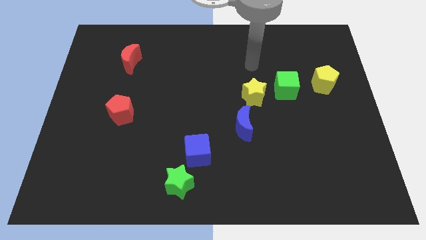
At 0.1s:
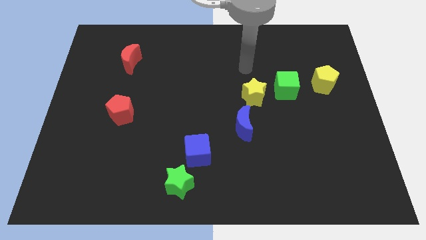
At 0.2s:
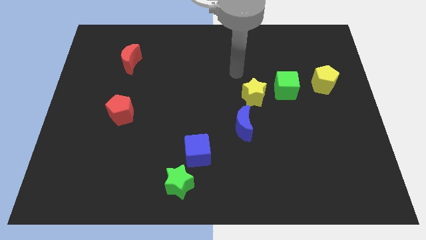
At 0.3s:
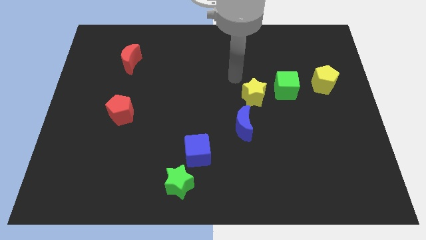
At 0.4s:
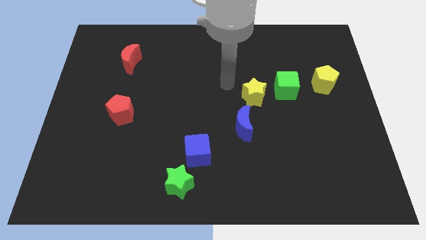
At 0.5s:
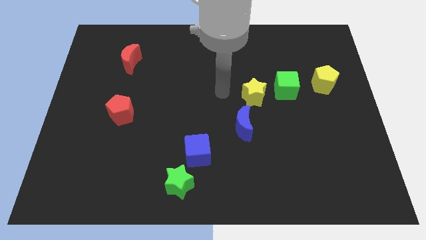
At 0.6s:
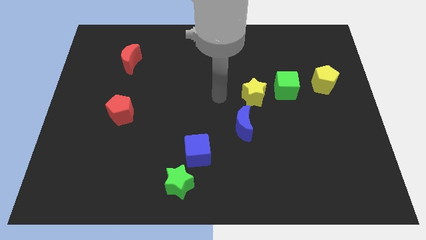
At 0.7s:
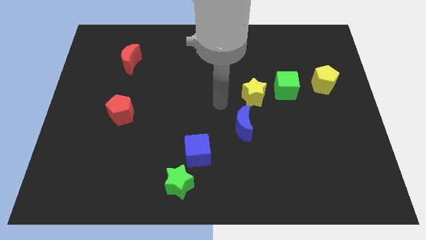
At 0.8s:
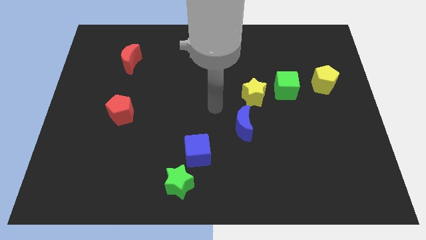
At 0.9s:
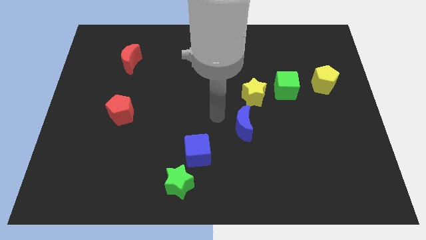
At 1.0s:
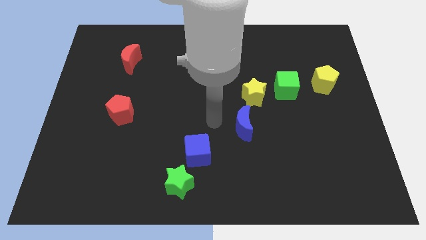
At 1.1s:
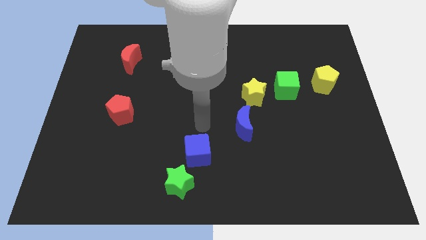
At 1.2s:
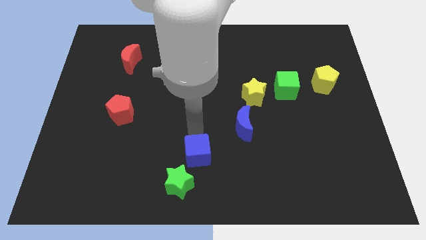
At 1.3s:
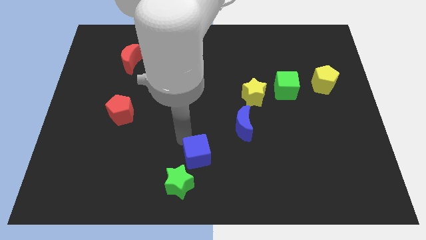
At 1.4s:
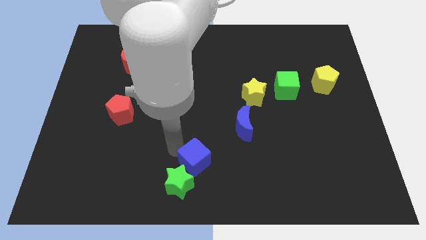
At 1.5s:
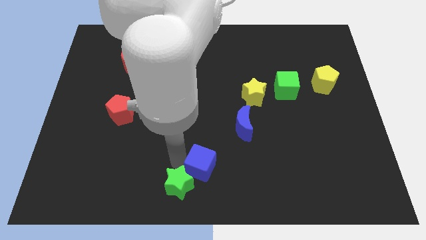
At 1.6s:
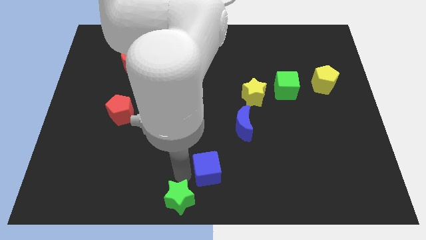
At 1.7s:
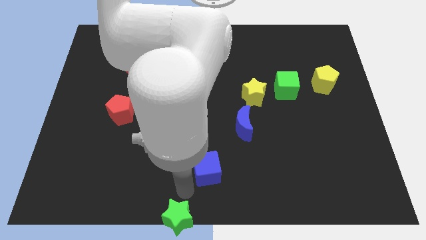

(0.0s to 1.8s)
pull the blue cube apart from the green star

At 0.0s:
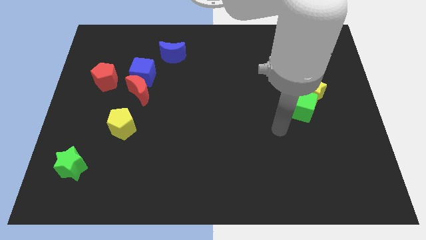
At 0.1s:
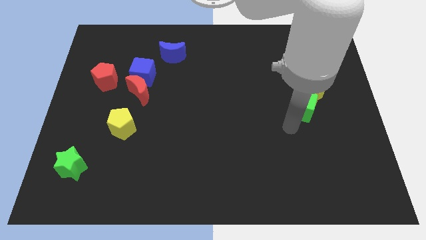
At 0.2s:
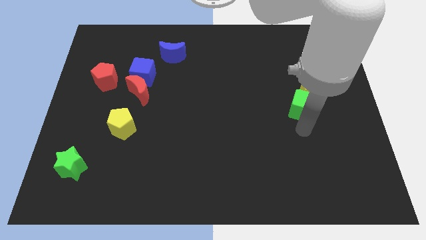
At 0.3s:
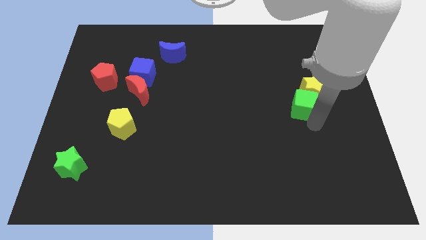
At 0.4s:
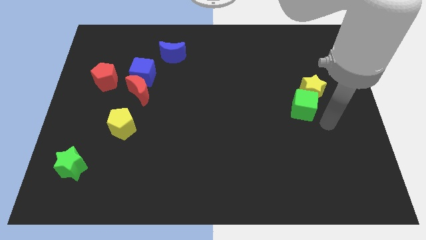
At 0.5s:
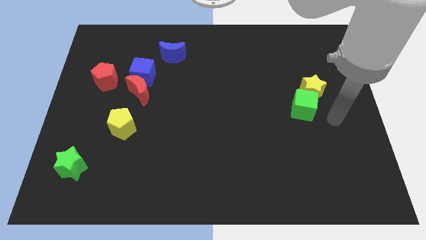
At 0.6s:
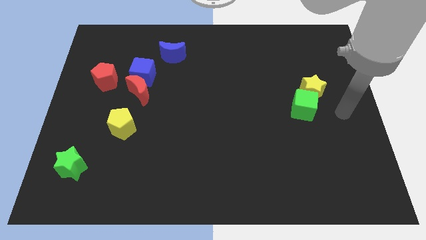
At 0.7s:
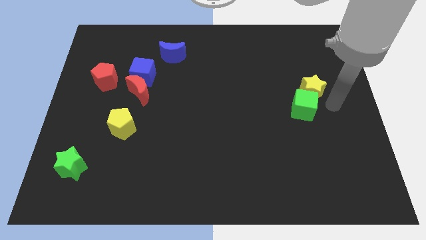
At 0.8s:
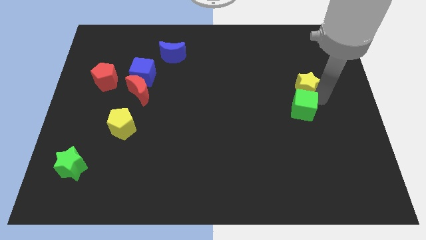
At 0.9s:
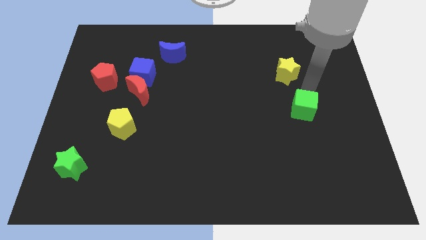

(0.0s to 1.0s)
move the green cube away from the yellow star

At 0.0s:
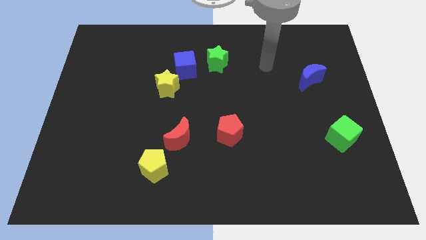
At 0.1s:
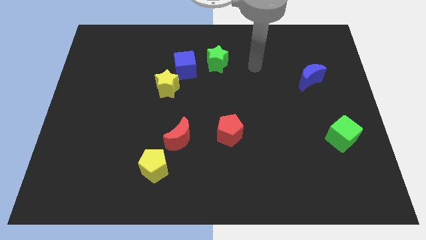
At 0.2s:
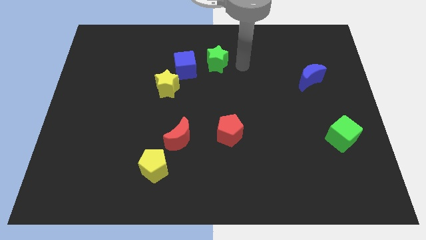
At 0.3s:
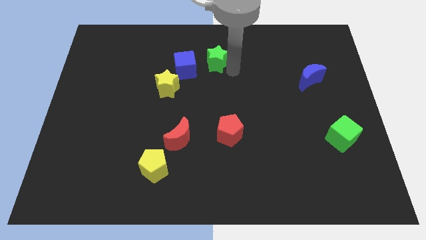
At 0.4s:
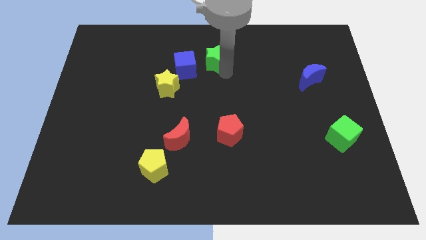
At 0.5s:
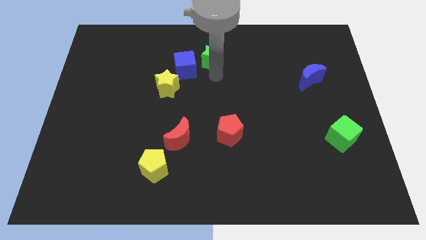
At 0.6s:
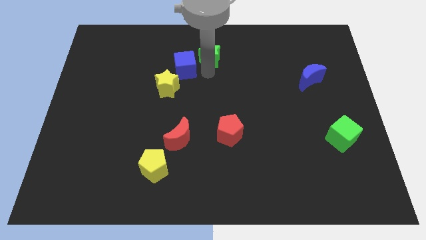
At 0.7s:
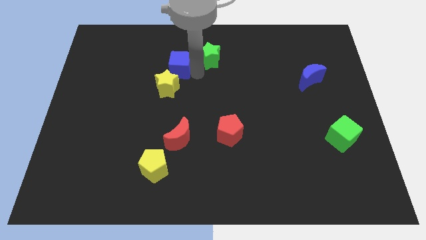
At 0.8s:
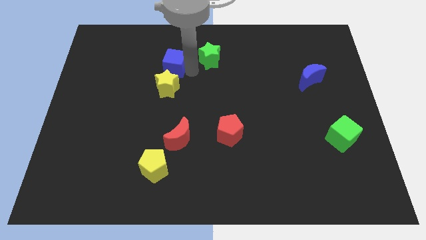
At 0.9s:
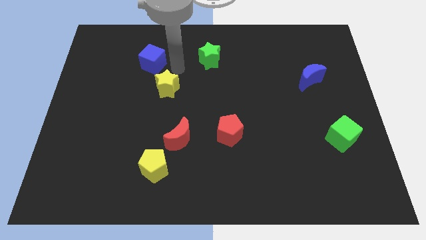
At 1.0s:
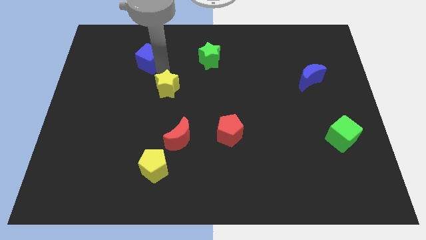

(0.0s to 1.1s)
pull the yellow star apart from the blue cube

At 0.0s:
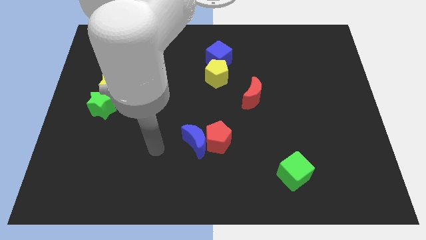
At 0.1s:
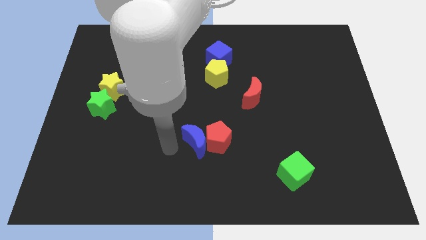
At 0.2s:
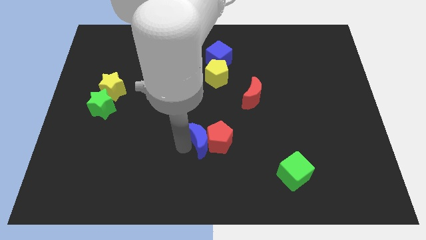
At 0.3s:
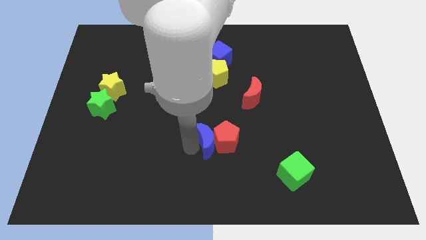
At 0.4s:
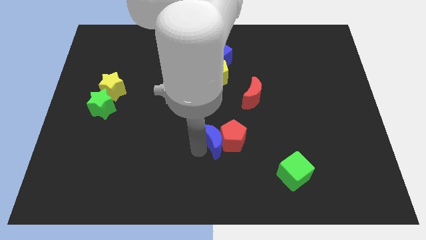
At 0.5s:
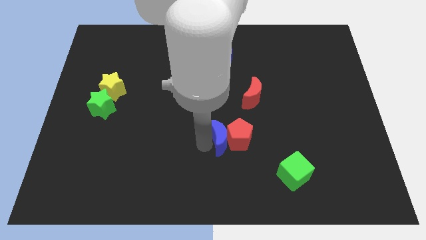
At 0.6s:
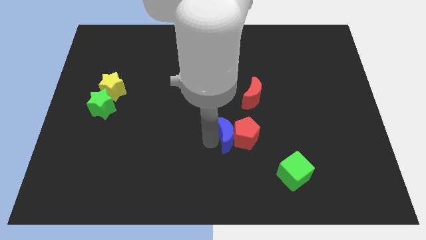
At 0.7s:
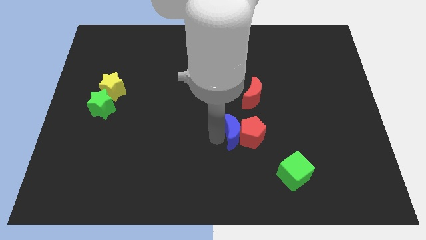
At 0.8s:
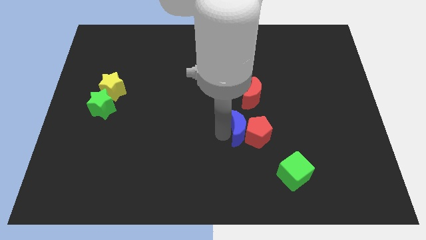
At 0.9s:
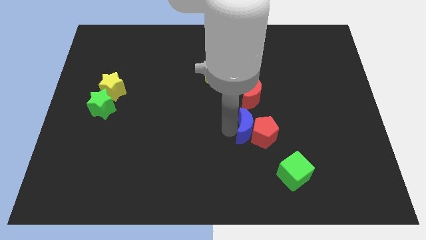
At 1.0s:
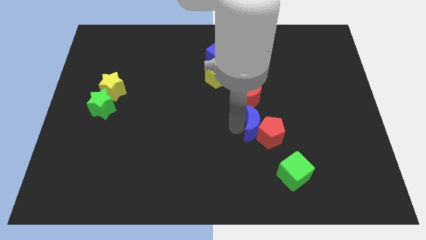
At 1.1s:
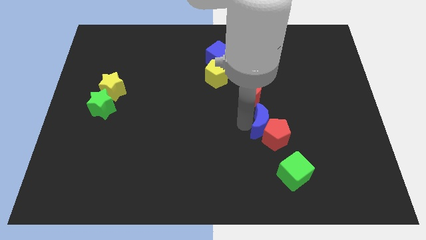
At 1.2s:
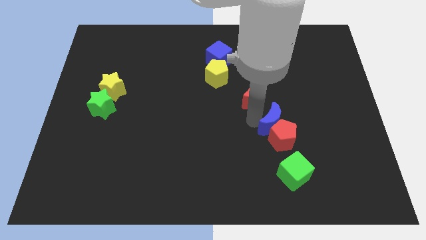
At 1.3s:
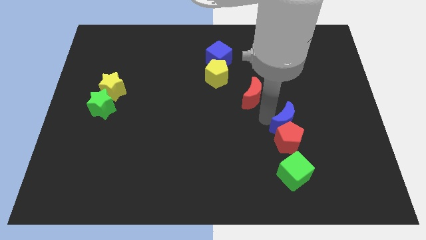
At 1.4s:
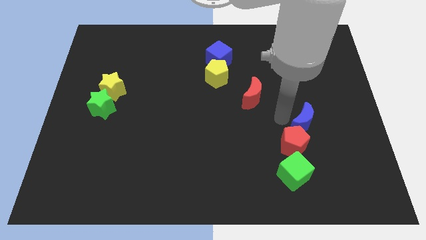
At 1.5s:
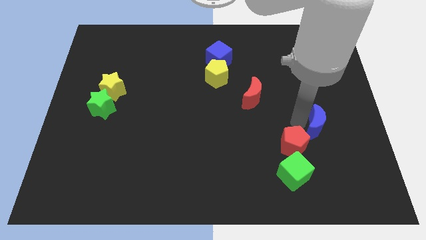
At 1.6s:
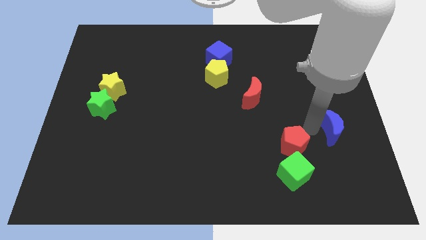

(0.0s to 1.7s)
separate the red pentagon from the blue moon

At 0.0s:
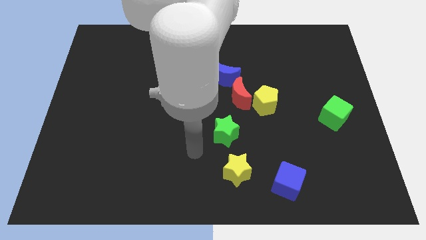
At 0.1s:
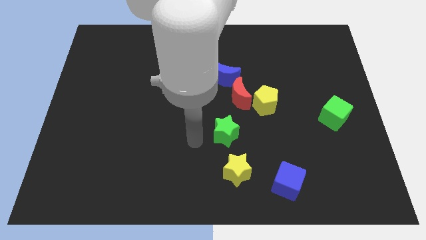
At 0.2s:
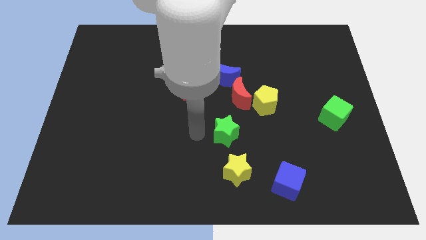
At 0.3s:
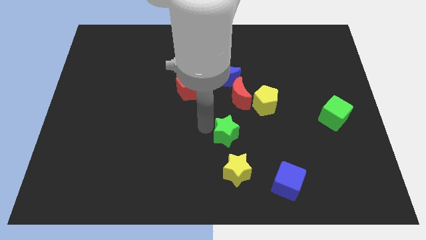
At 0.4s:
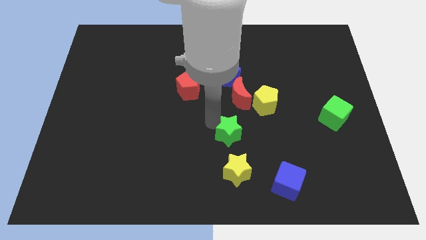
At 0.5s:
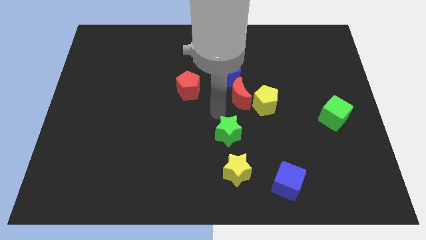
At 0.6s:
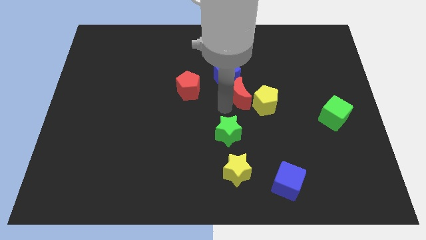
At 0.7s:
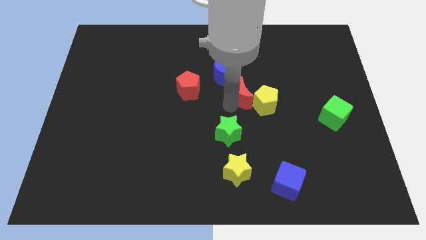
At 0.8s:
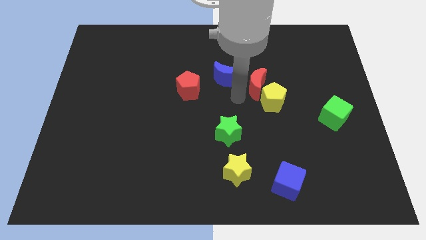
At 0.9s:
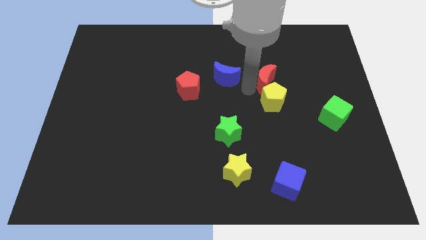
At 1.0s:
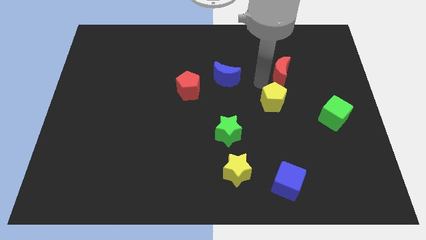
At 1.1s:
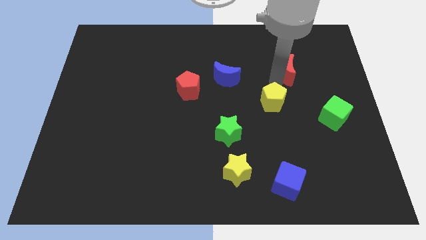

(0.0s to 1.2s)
separate the yellow pentagon from the red moon

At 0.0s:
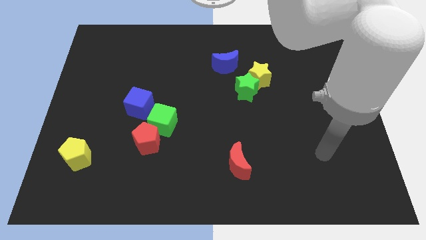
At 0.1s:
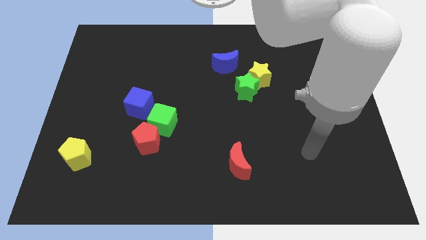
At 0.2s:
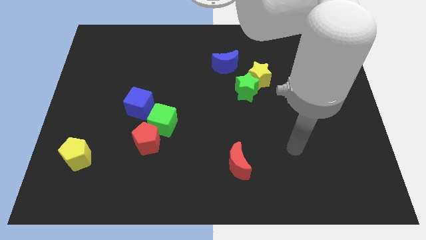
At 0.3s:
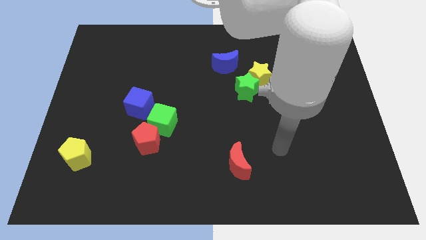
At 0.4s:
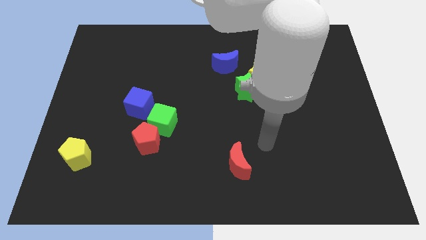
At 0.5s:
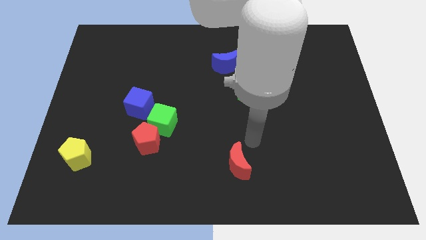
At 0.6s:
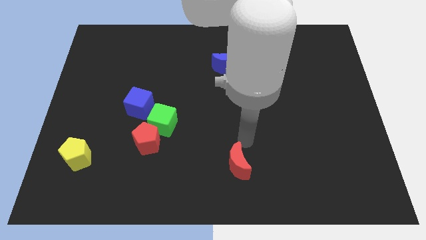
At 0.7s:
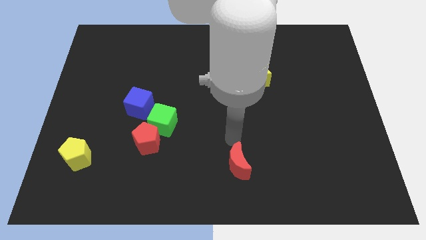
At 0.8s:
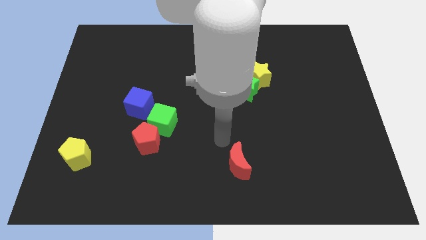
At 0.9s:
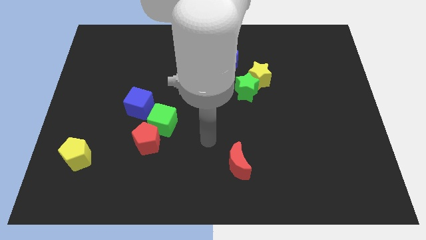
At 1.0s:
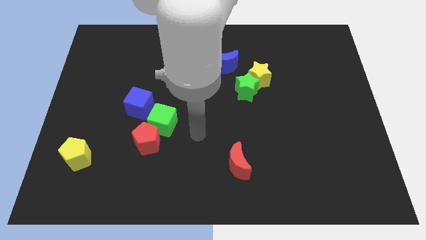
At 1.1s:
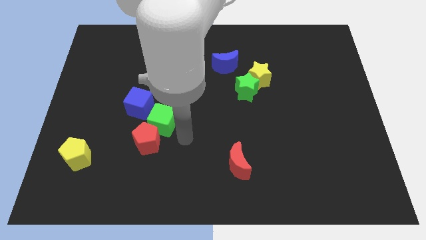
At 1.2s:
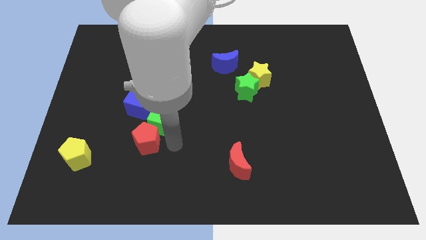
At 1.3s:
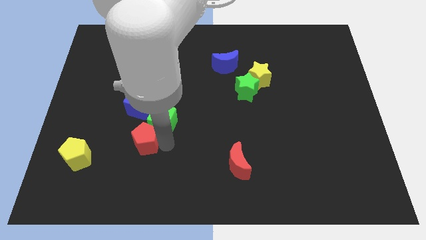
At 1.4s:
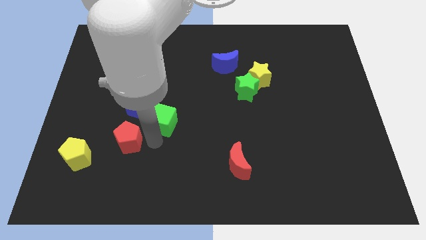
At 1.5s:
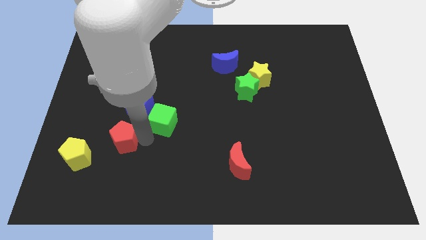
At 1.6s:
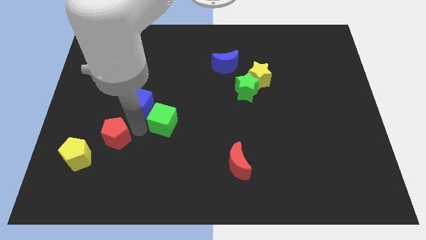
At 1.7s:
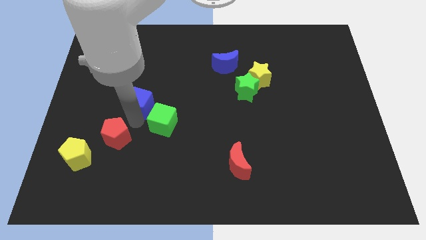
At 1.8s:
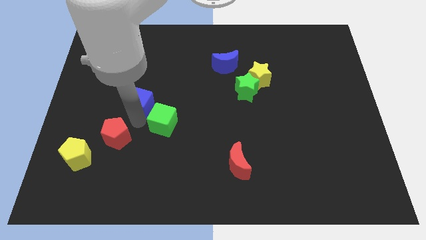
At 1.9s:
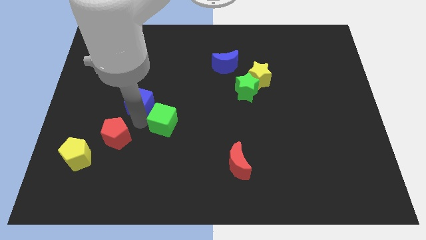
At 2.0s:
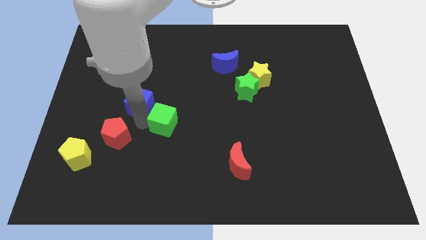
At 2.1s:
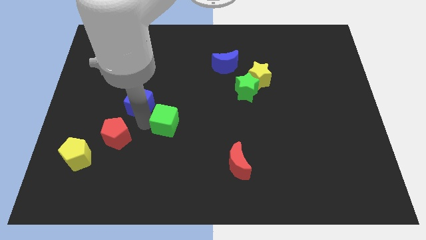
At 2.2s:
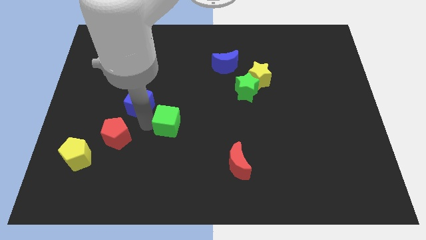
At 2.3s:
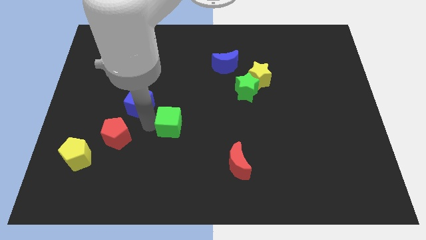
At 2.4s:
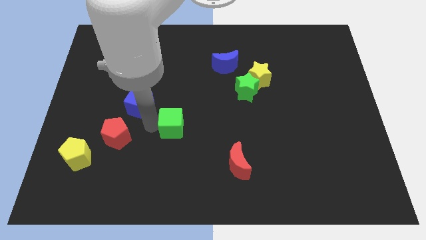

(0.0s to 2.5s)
separate the green cube from the red pentagon and blue cube
